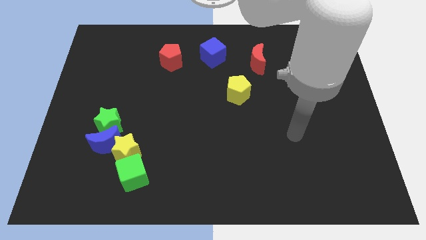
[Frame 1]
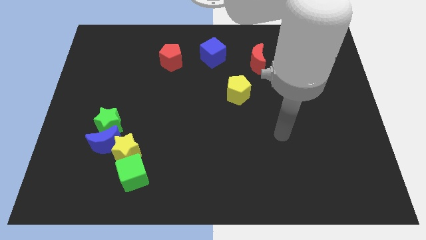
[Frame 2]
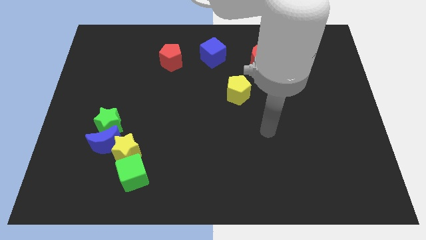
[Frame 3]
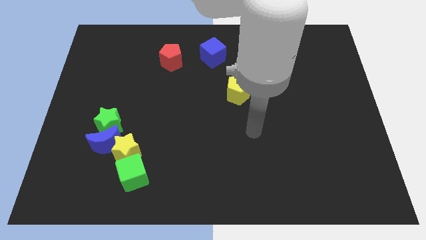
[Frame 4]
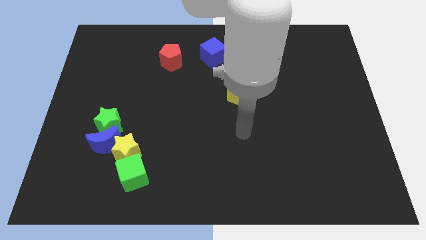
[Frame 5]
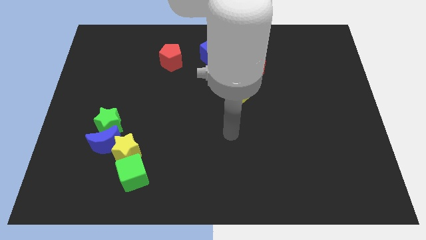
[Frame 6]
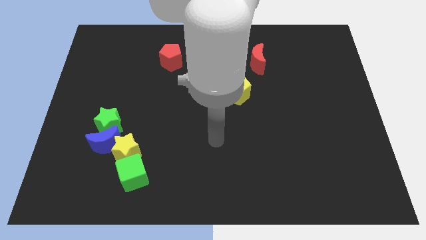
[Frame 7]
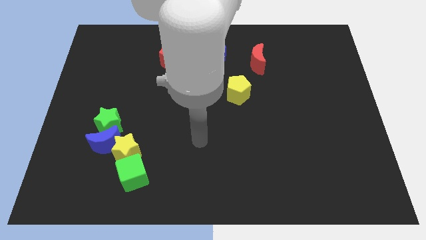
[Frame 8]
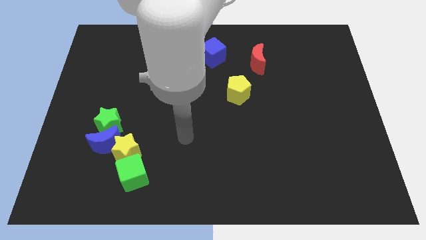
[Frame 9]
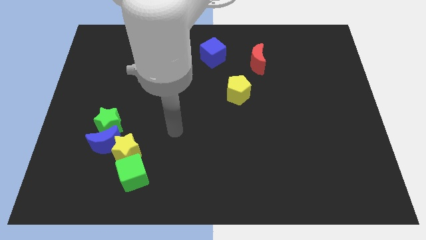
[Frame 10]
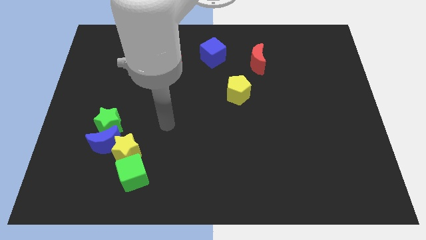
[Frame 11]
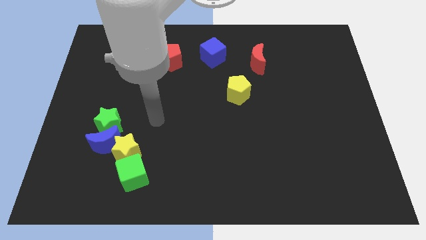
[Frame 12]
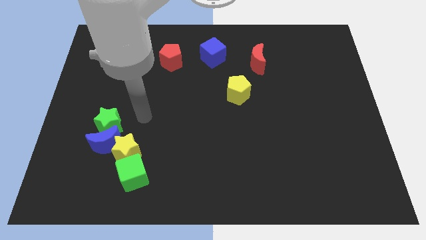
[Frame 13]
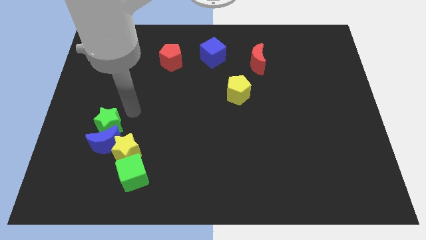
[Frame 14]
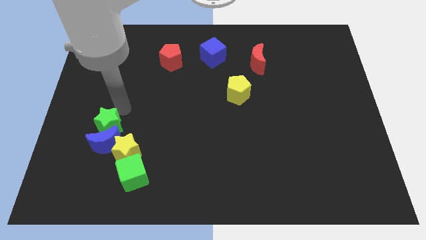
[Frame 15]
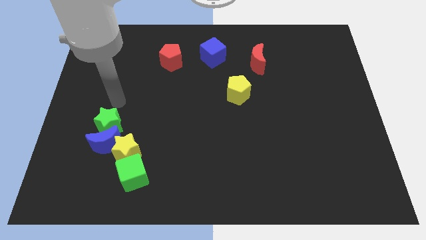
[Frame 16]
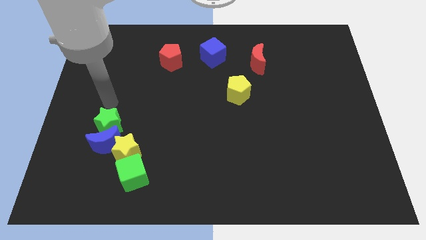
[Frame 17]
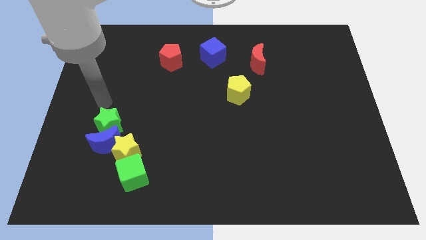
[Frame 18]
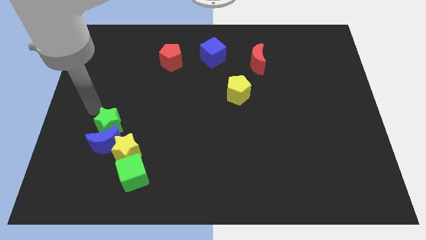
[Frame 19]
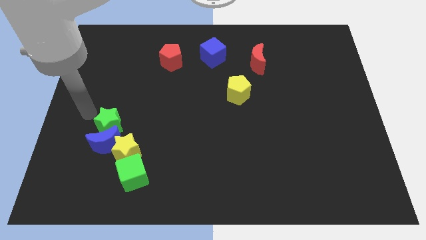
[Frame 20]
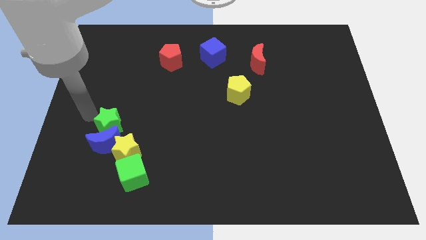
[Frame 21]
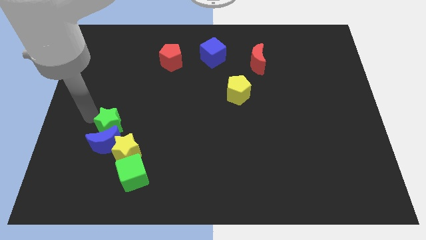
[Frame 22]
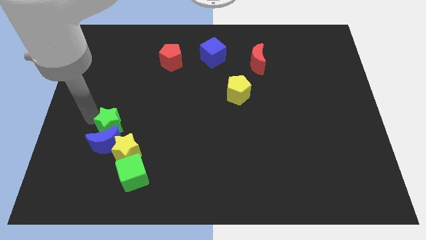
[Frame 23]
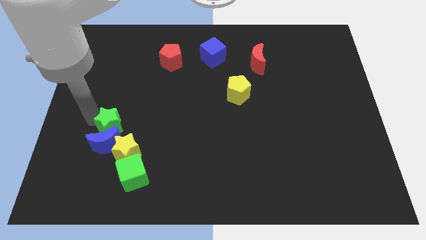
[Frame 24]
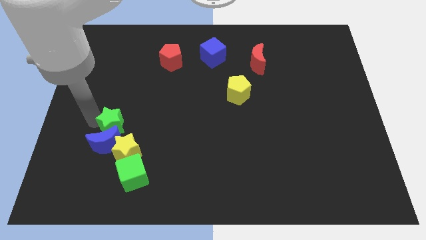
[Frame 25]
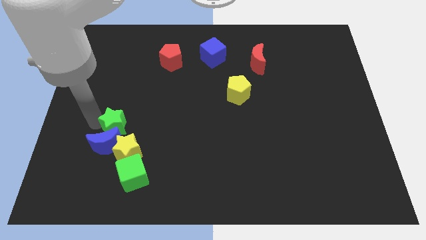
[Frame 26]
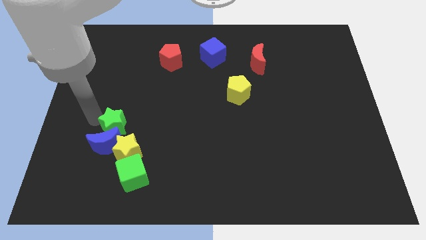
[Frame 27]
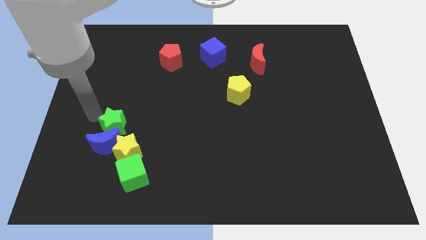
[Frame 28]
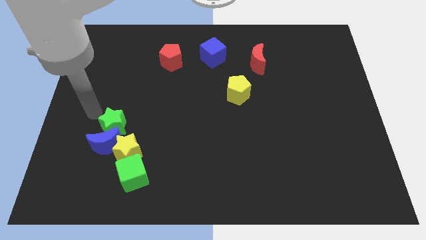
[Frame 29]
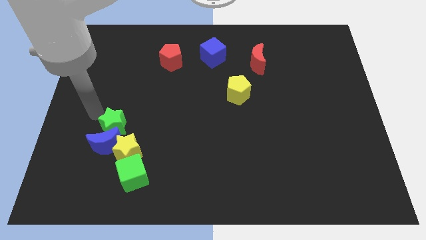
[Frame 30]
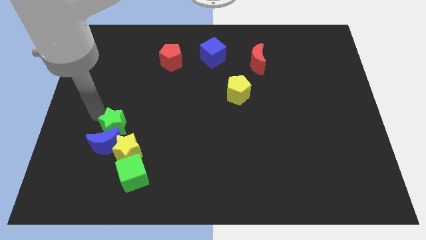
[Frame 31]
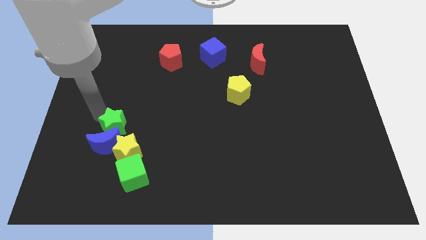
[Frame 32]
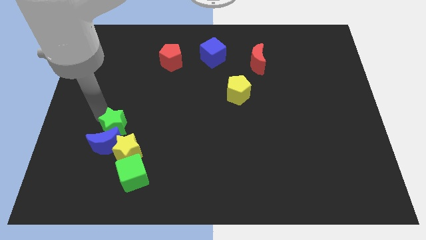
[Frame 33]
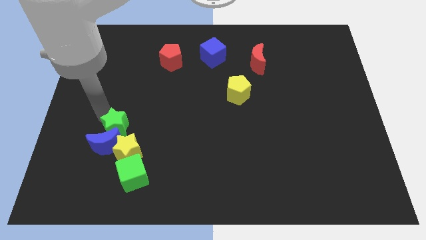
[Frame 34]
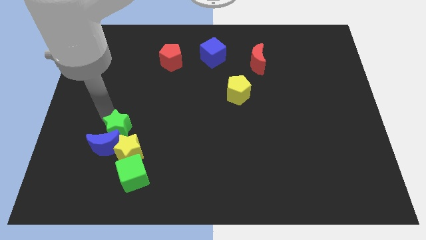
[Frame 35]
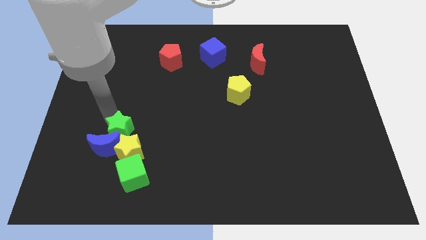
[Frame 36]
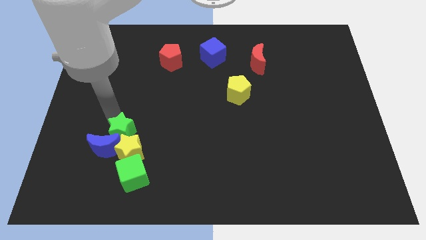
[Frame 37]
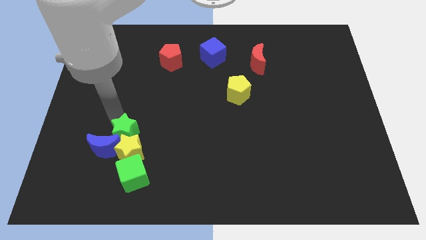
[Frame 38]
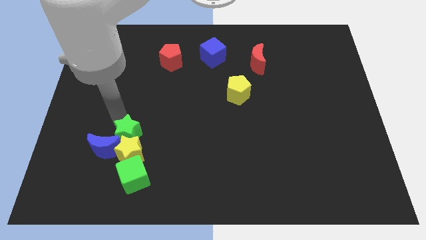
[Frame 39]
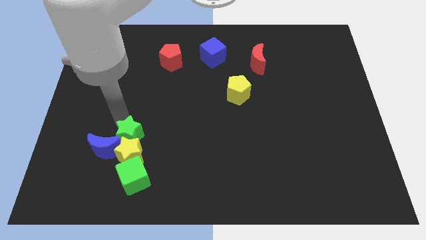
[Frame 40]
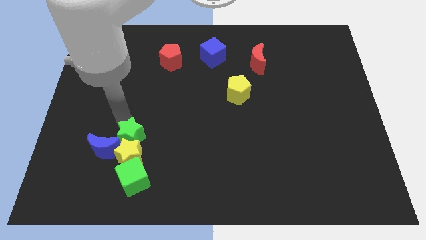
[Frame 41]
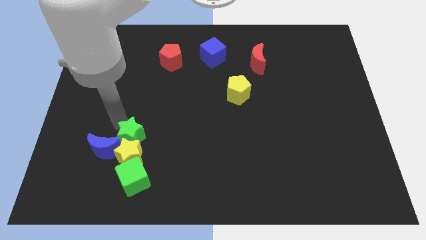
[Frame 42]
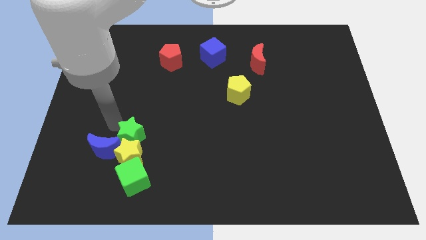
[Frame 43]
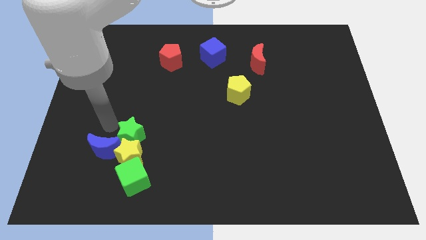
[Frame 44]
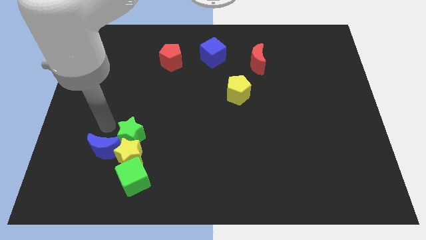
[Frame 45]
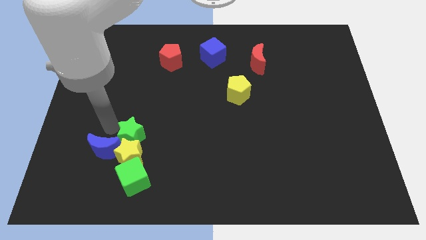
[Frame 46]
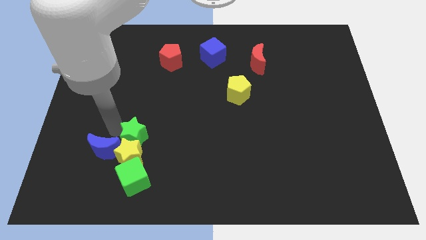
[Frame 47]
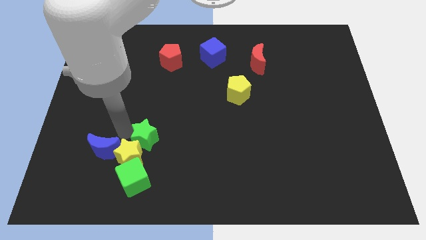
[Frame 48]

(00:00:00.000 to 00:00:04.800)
slightly slide the green star downwards and then to the right

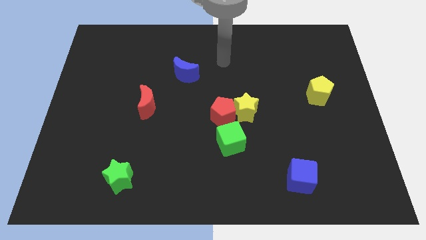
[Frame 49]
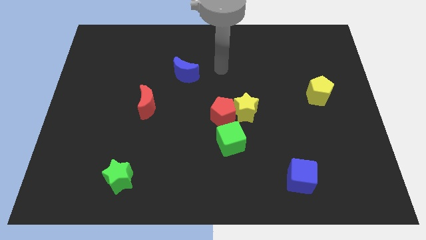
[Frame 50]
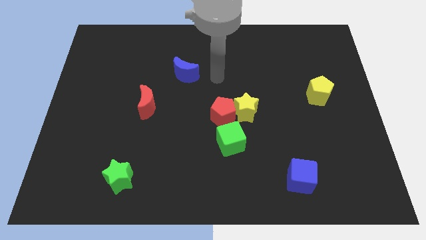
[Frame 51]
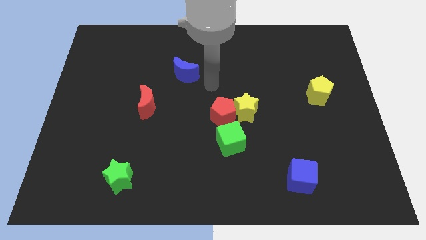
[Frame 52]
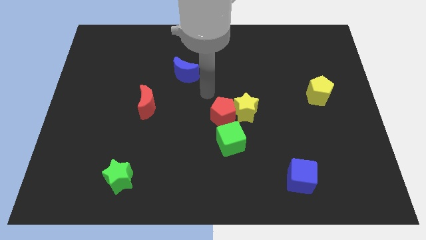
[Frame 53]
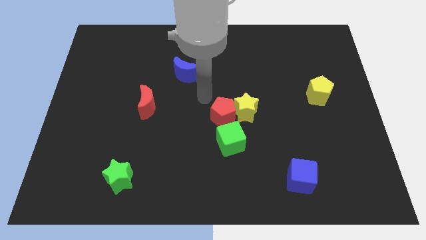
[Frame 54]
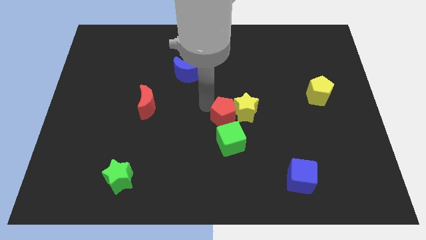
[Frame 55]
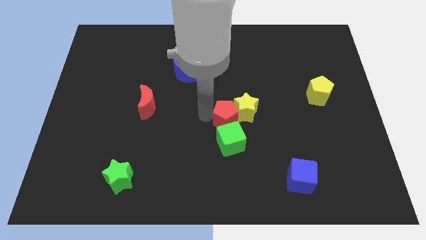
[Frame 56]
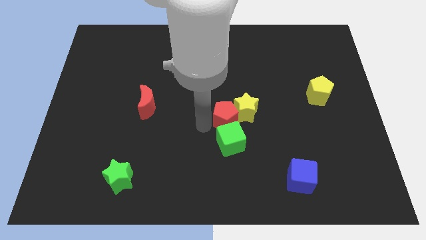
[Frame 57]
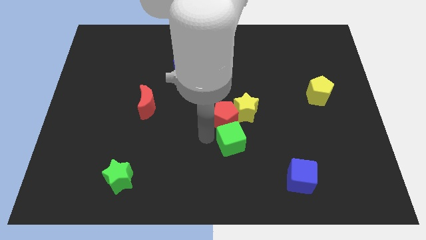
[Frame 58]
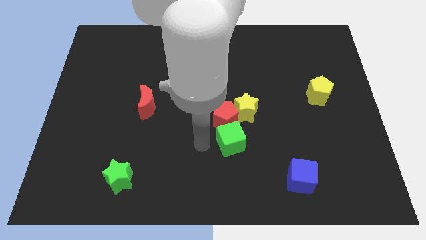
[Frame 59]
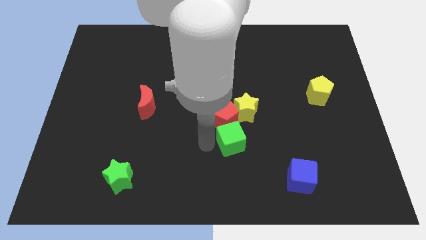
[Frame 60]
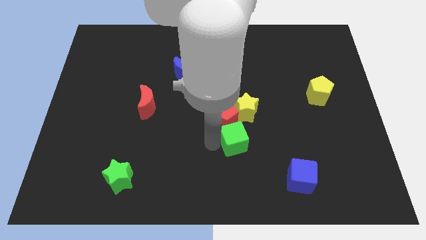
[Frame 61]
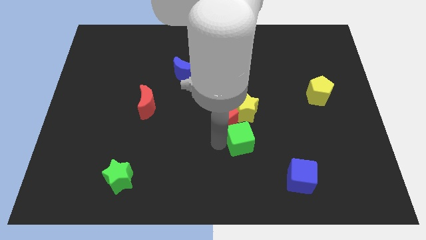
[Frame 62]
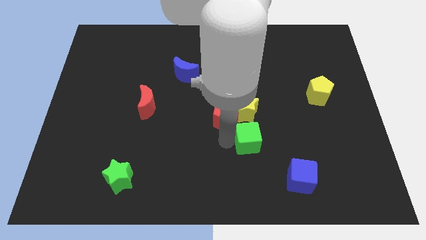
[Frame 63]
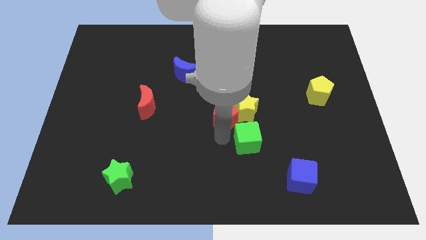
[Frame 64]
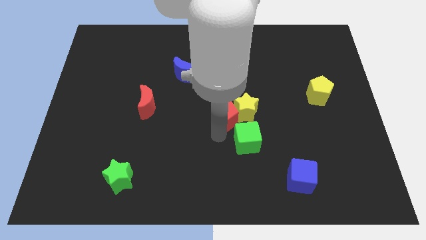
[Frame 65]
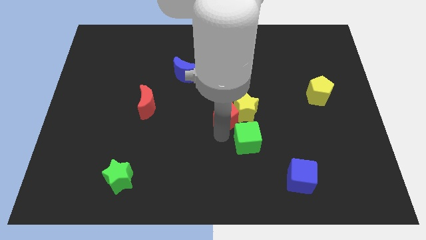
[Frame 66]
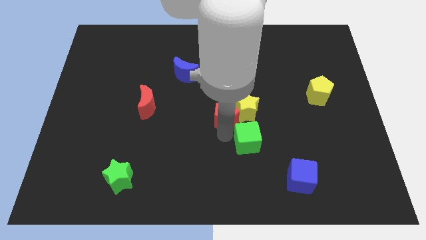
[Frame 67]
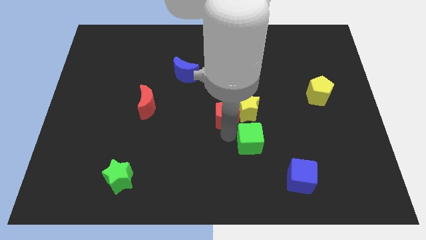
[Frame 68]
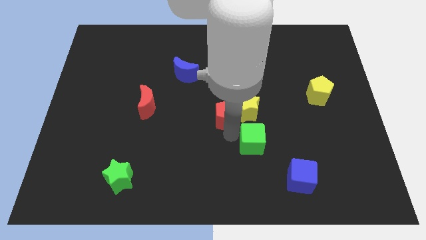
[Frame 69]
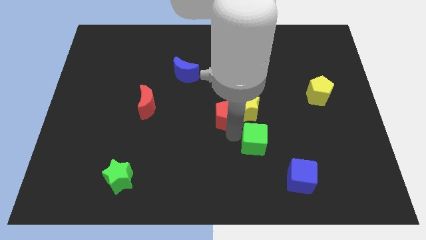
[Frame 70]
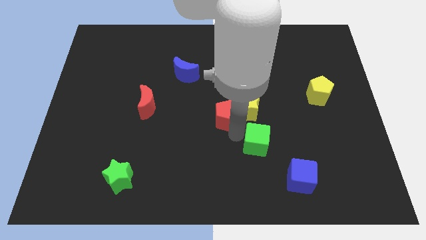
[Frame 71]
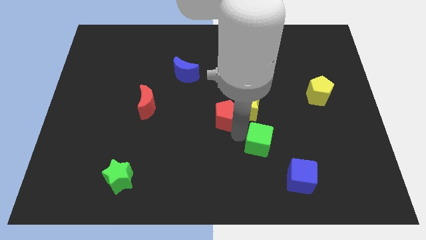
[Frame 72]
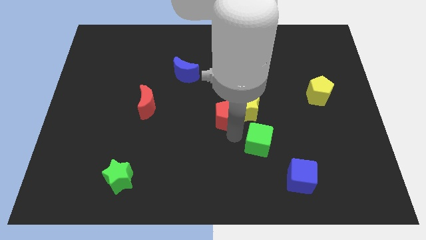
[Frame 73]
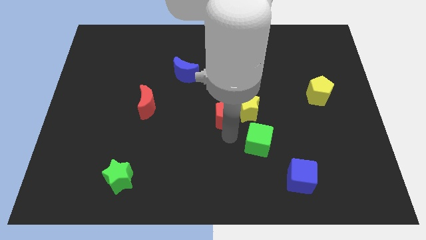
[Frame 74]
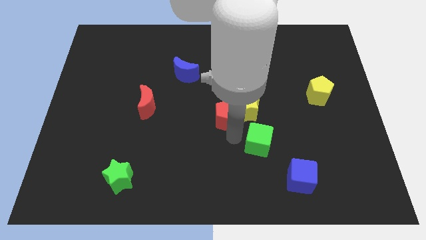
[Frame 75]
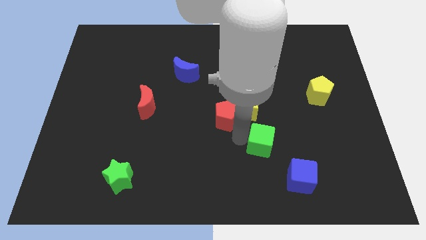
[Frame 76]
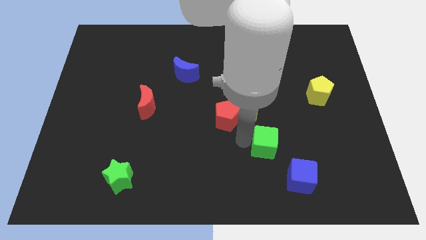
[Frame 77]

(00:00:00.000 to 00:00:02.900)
slightly push the green cube to the right
